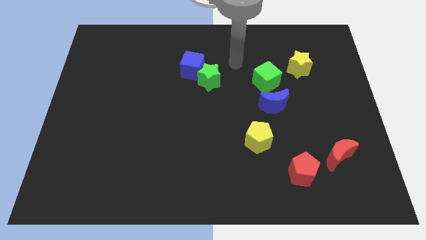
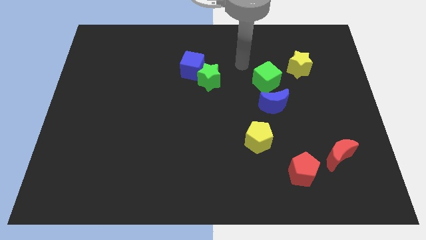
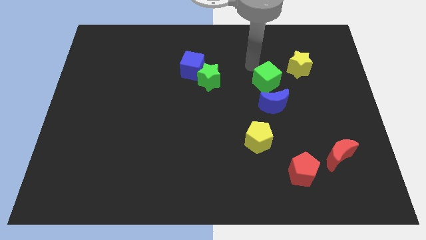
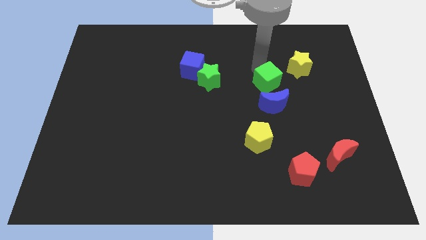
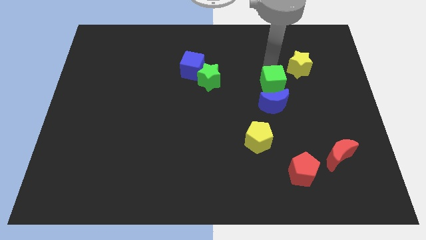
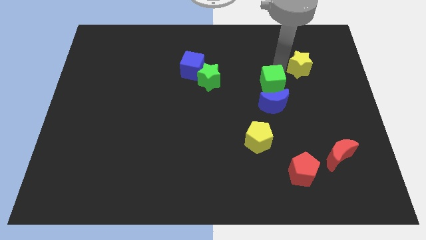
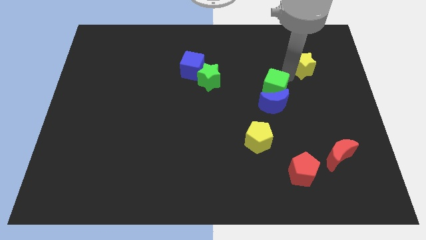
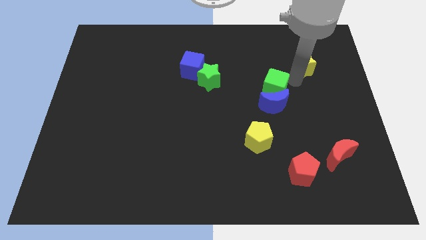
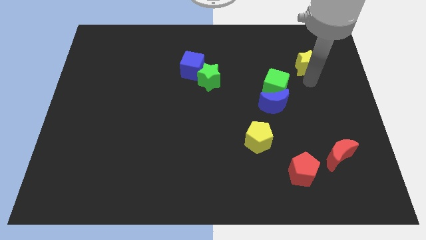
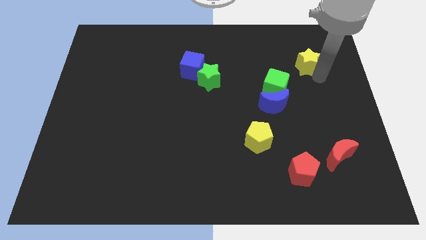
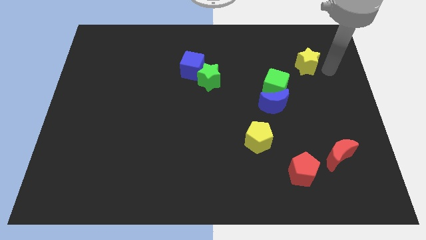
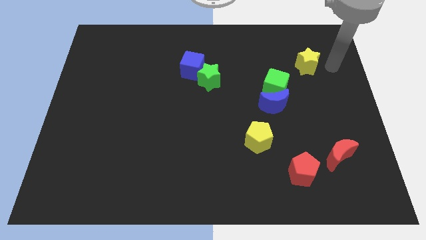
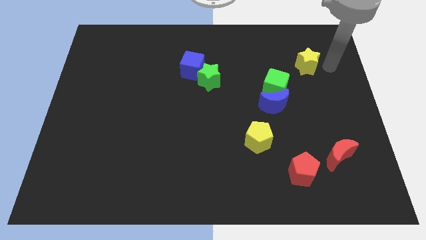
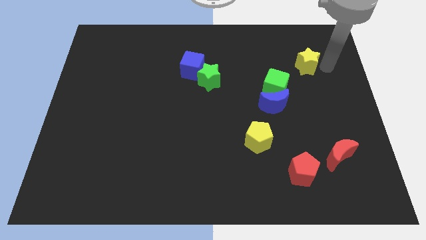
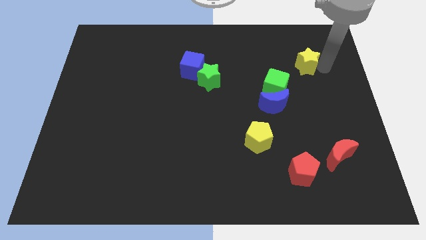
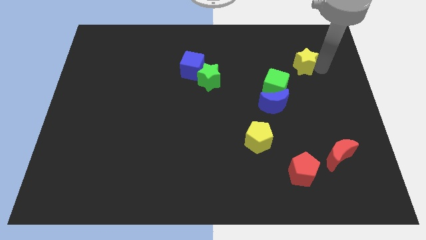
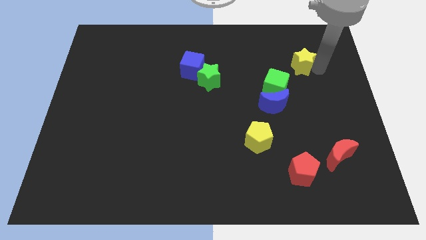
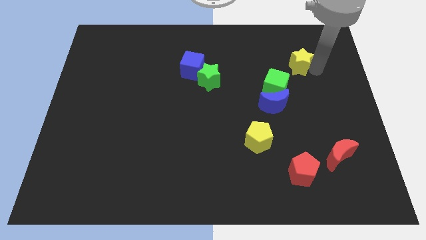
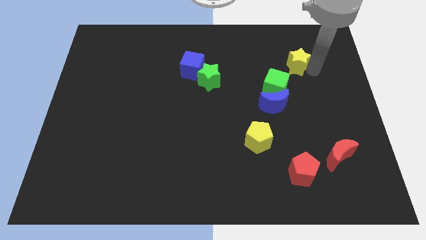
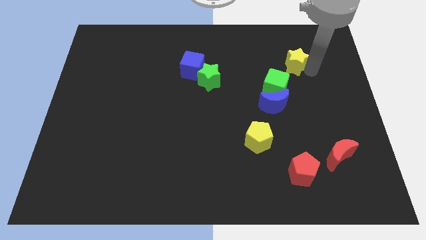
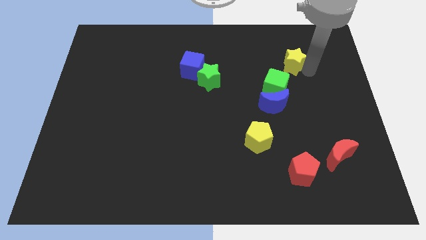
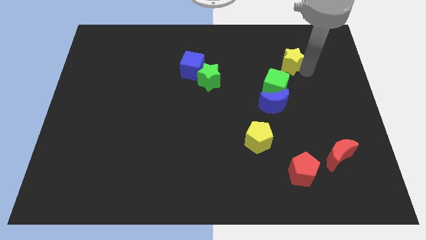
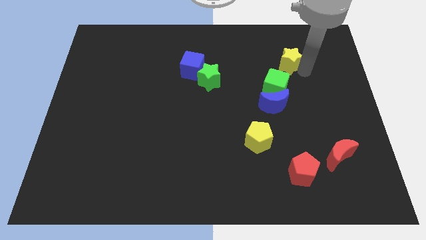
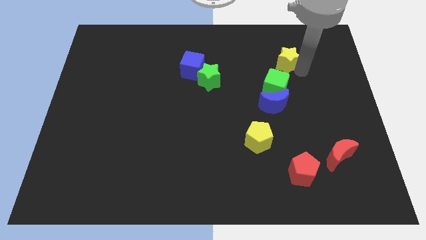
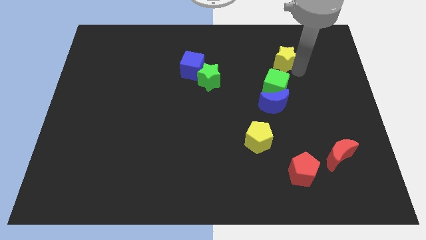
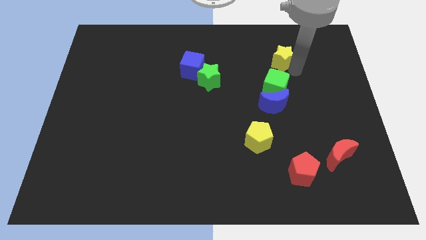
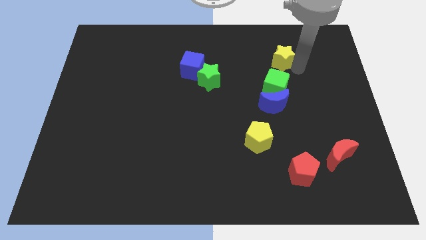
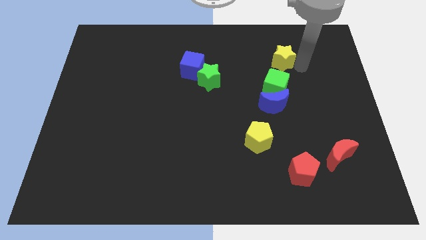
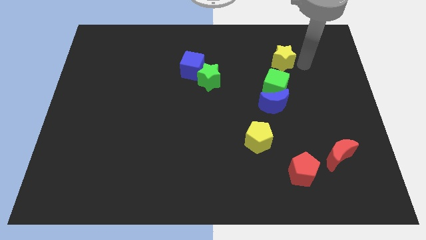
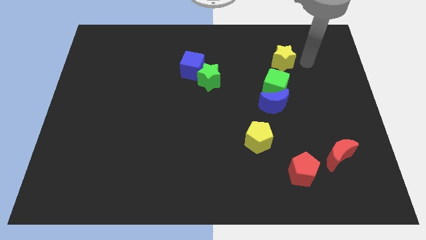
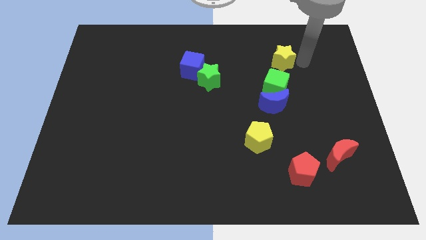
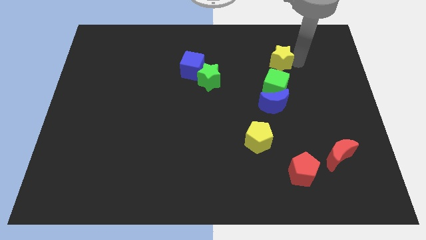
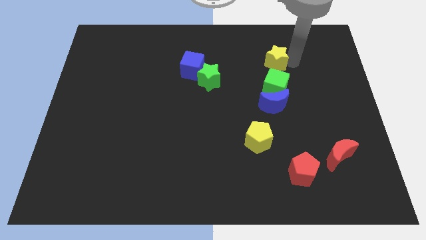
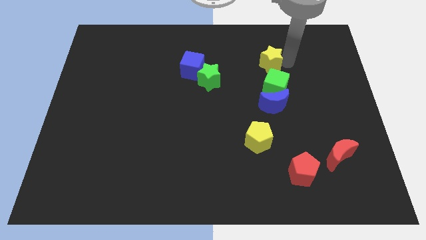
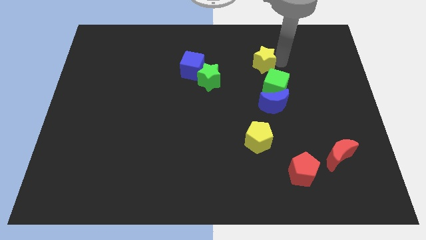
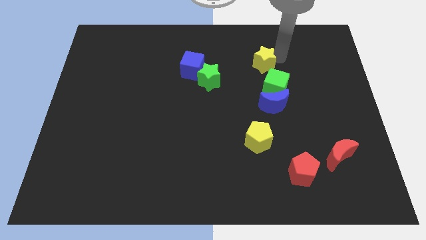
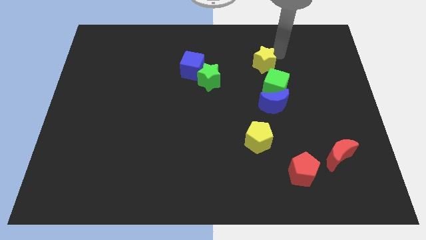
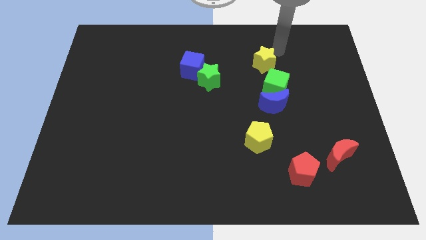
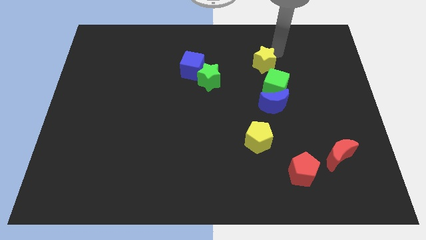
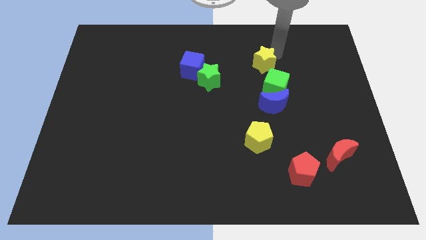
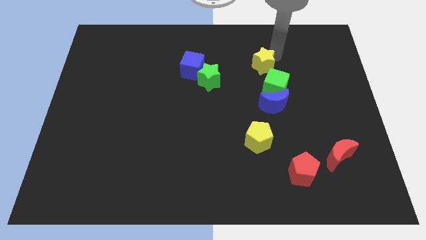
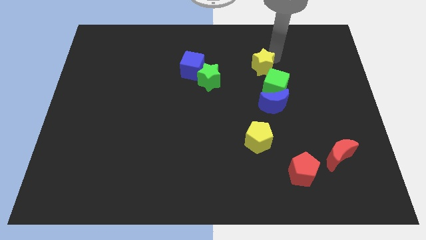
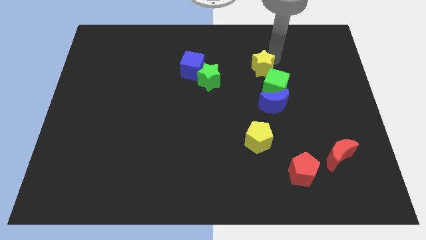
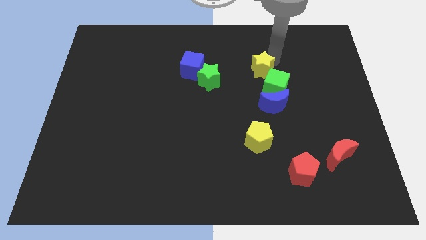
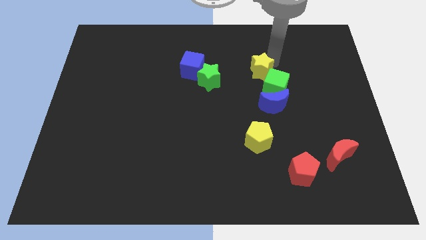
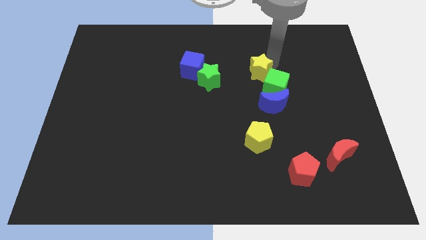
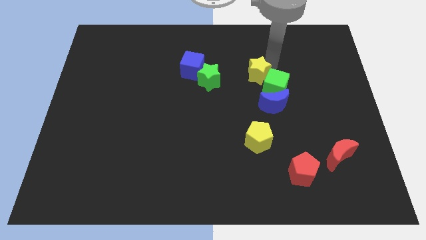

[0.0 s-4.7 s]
push the yellow star down and to the left diagonally a bit

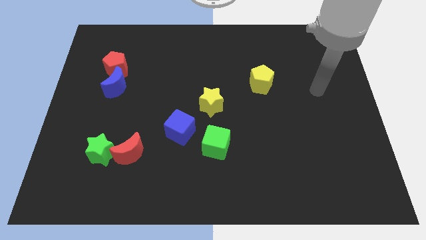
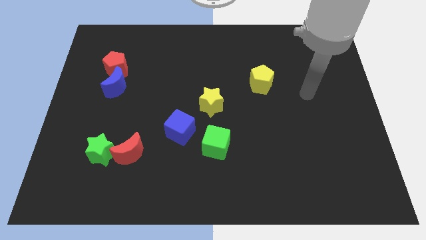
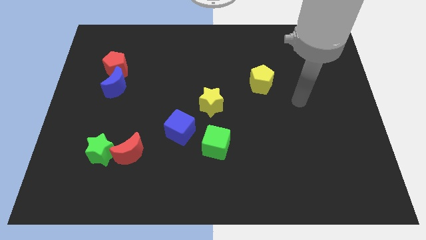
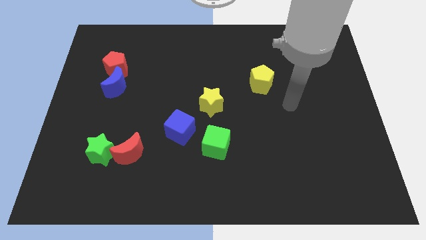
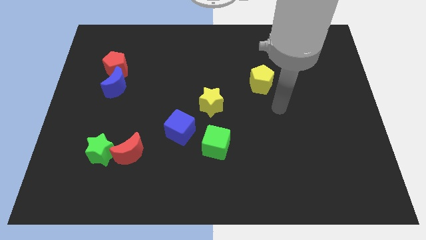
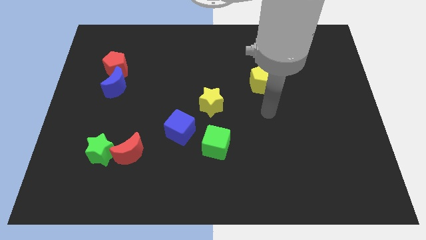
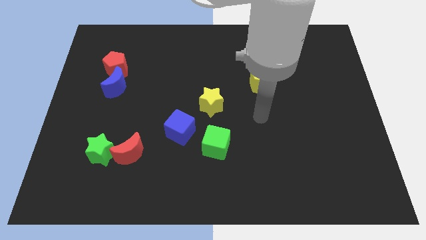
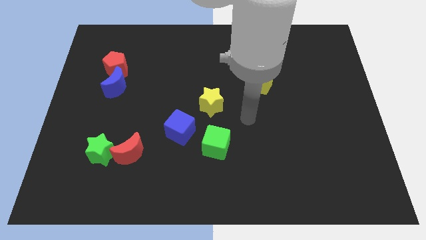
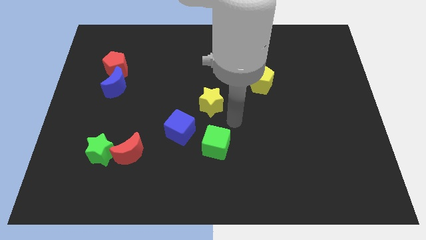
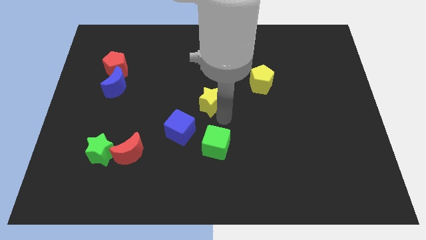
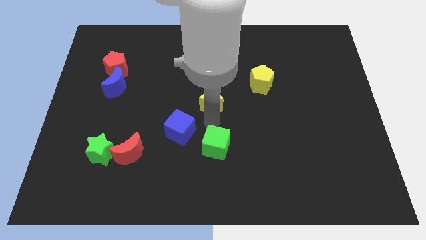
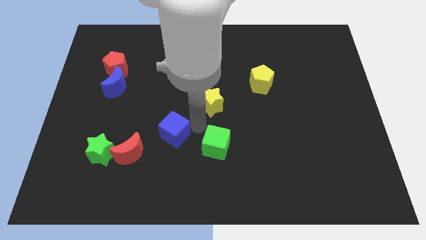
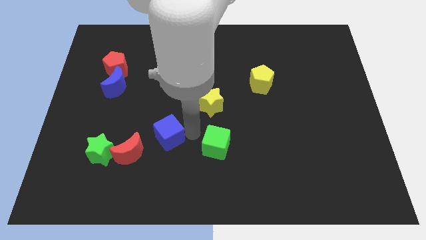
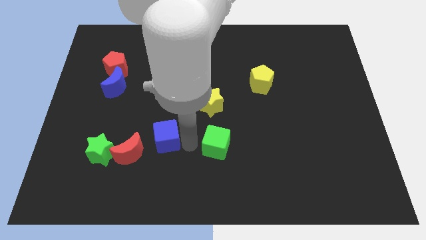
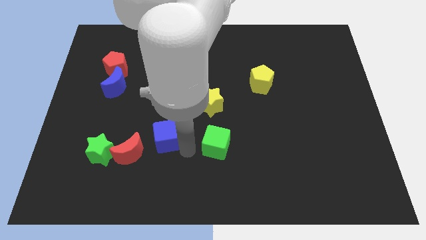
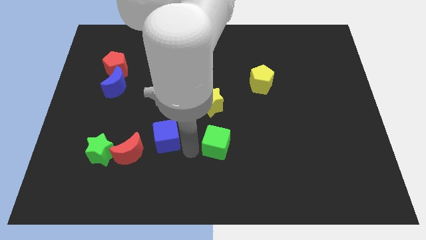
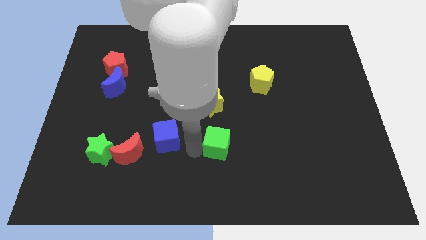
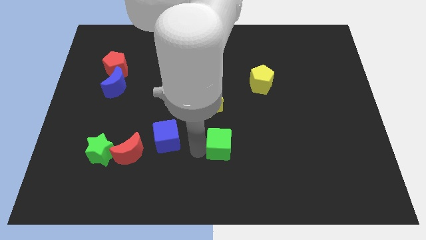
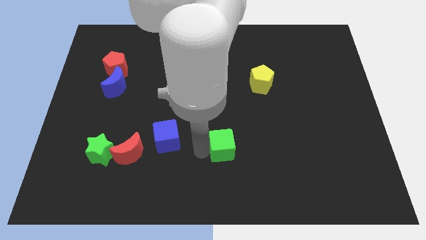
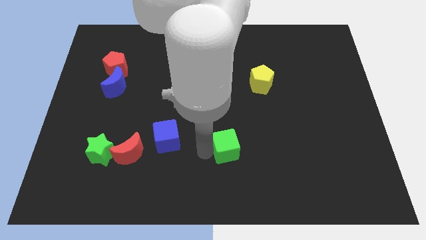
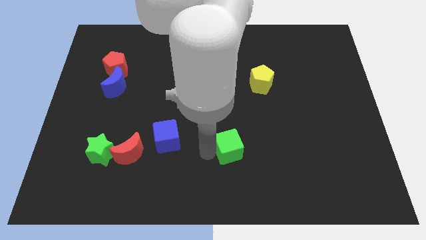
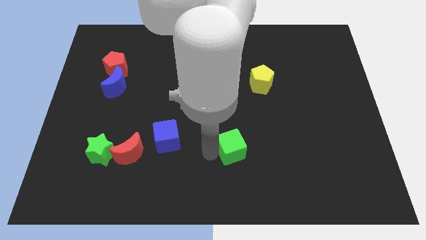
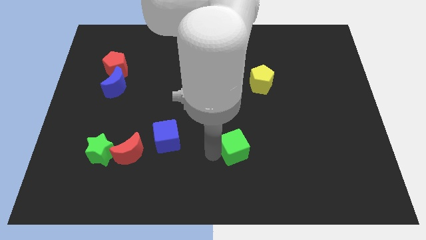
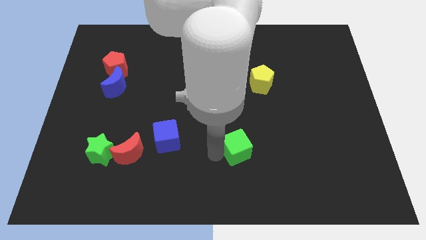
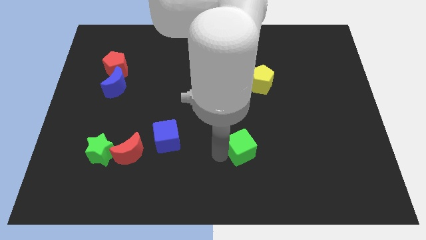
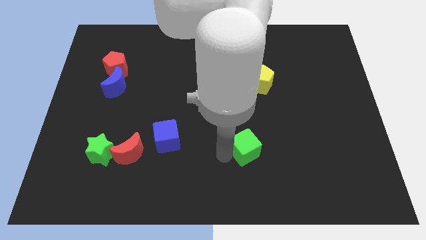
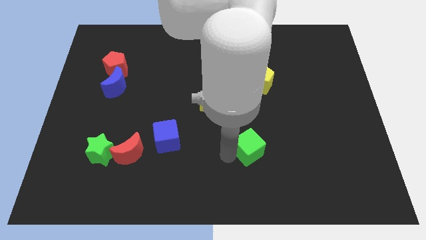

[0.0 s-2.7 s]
slide the green cube a little bit right

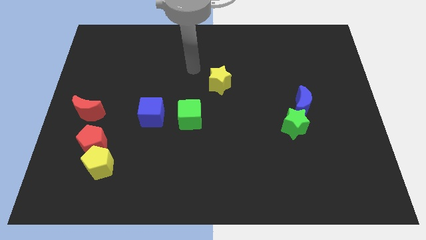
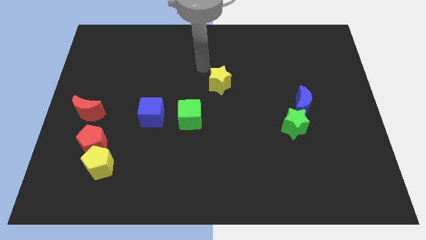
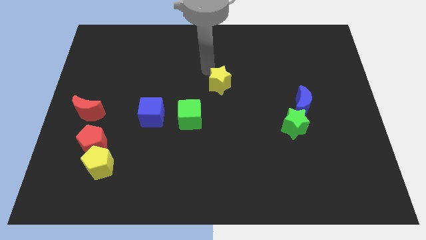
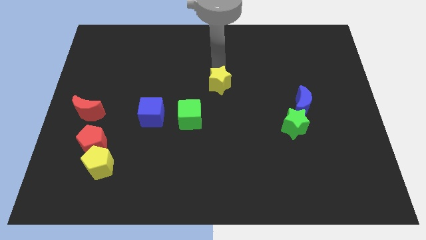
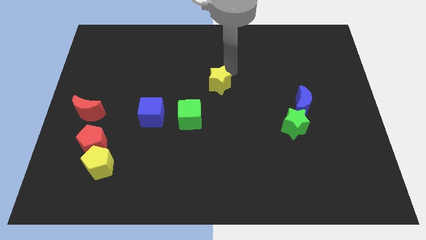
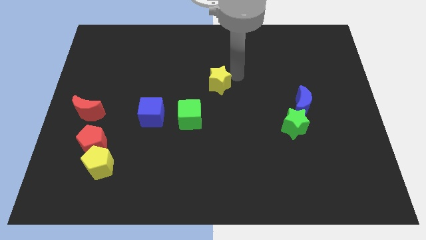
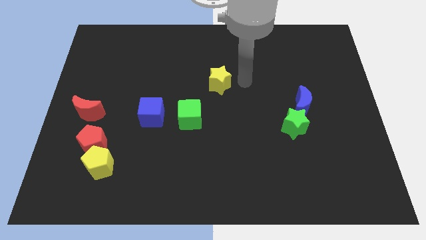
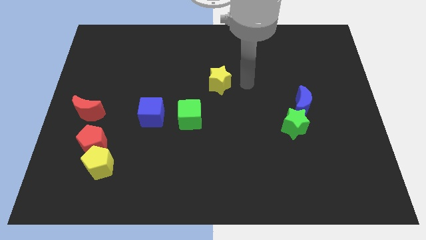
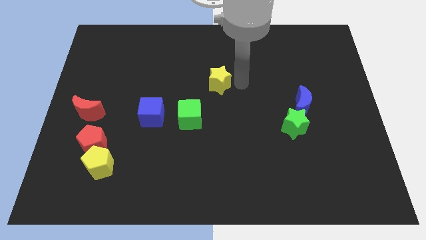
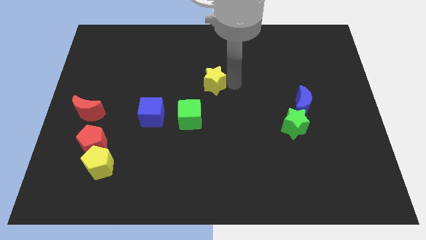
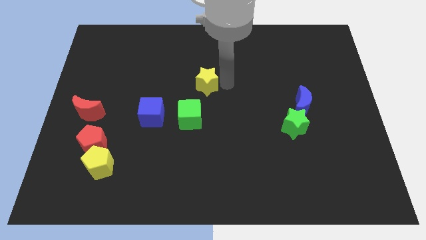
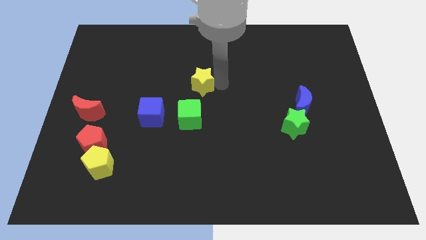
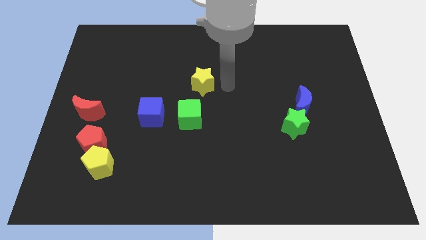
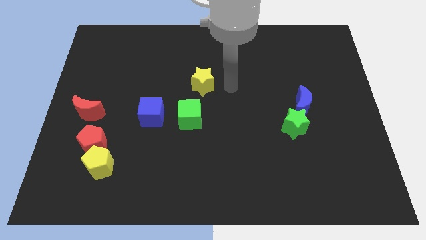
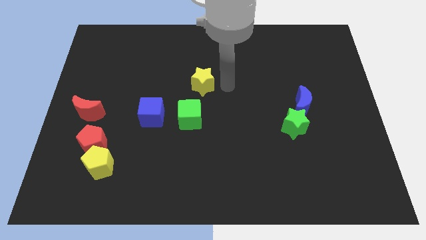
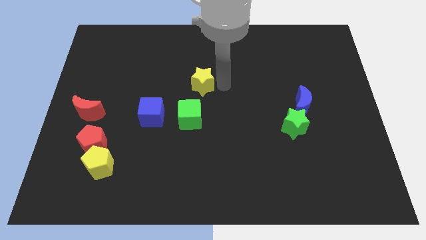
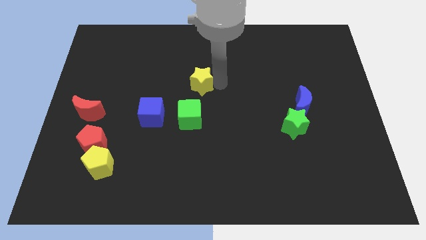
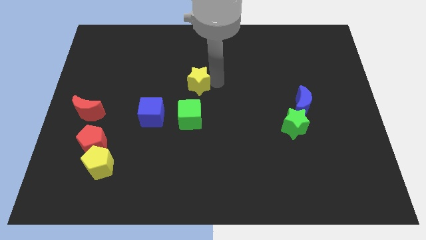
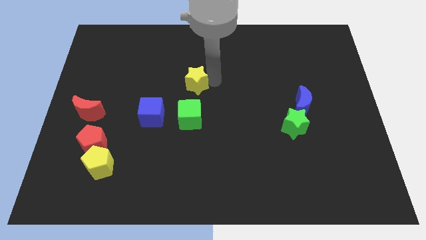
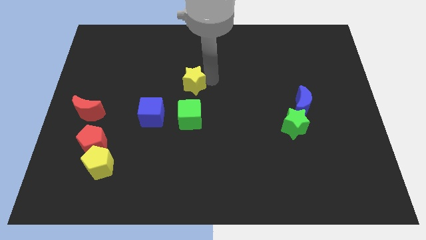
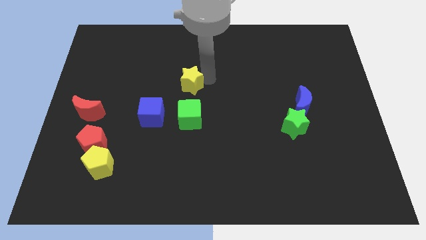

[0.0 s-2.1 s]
push the yellow star a little bit to the left
